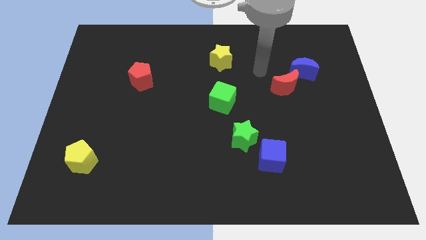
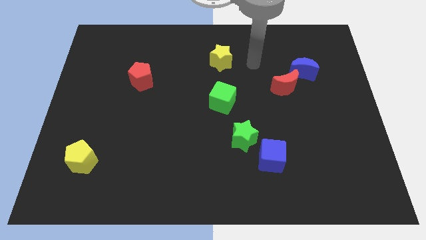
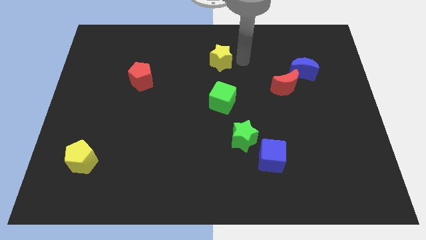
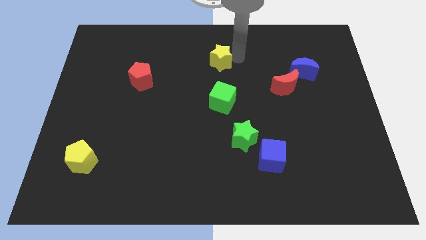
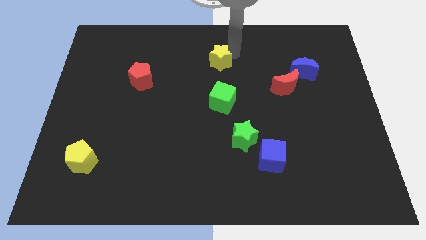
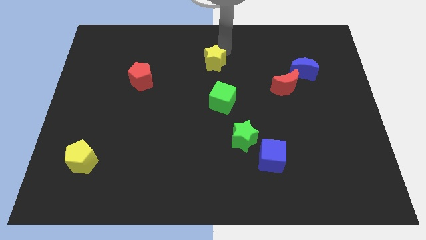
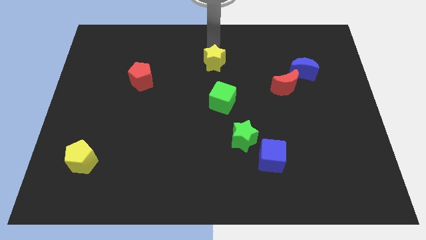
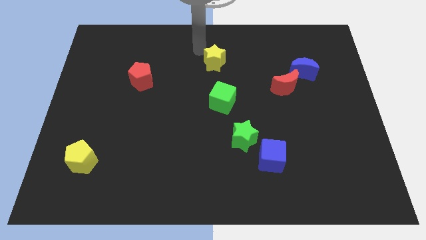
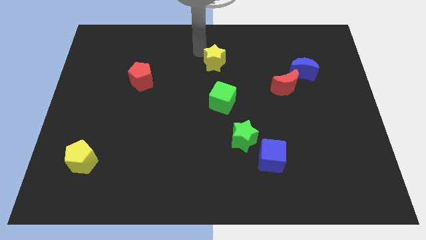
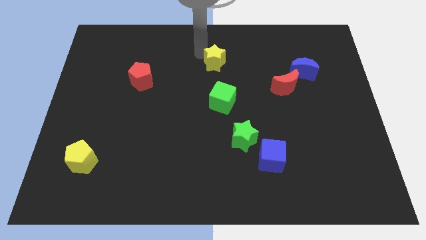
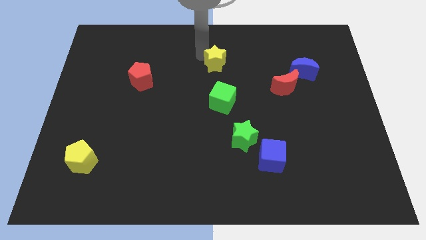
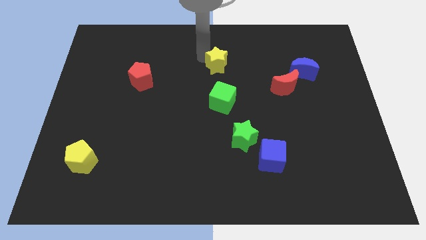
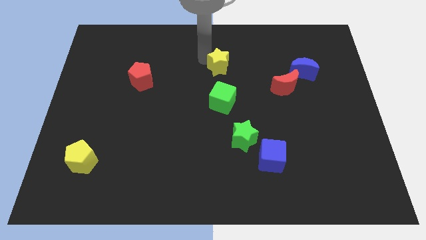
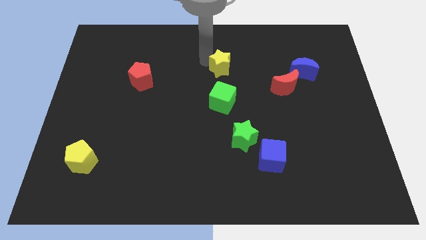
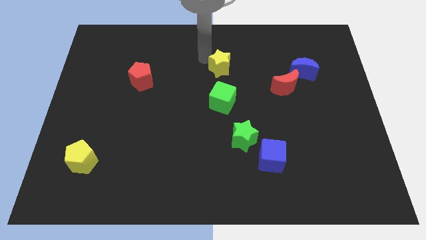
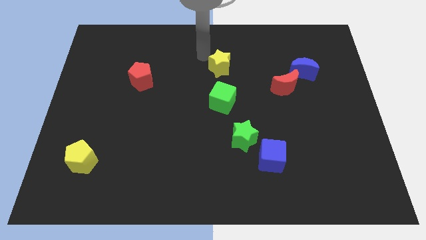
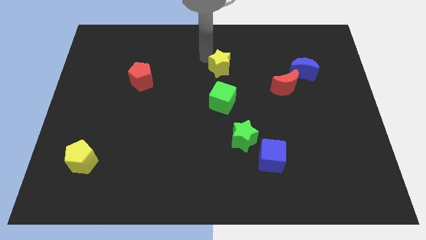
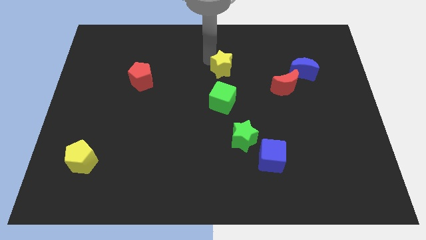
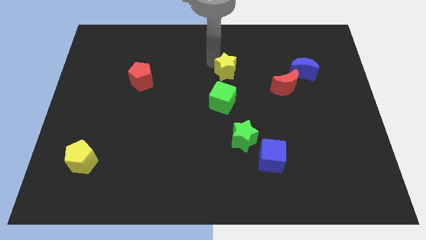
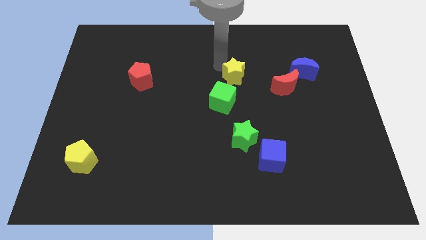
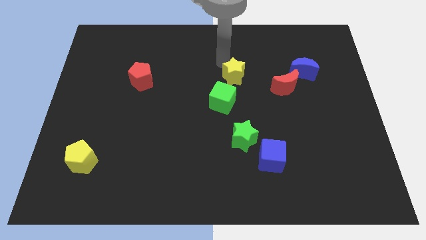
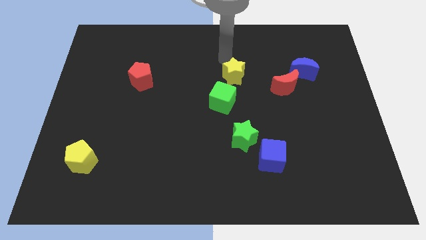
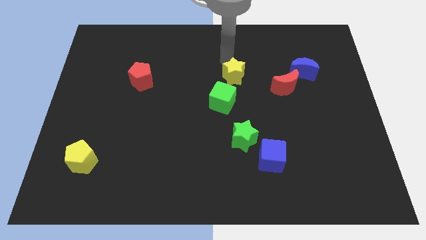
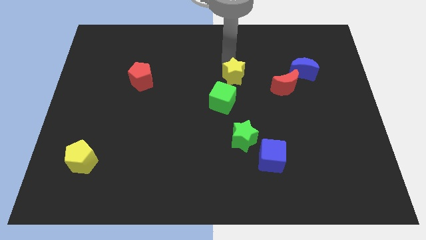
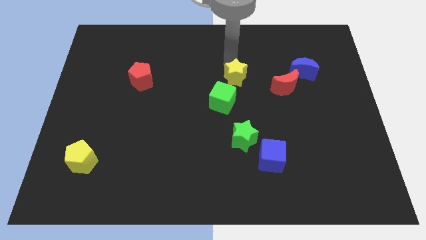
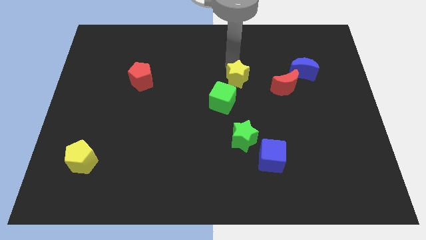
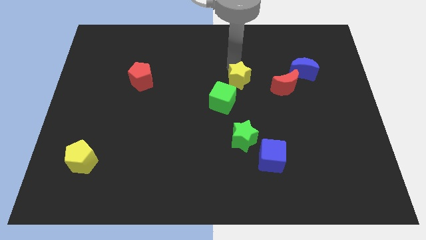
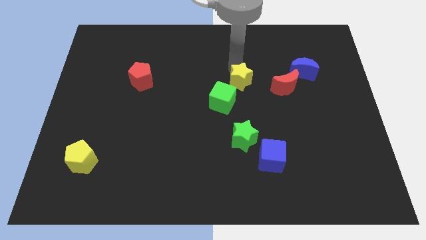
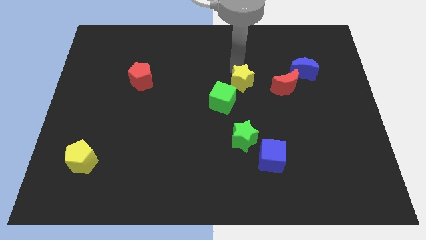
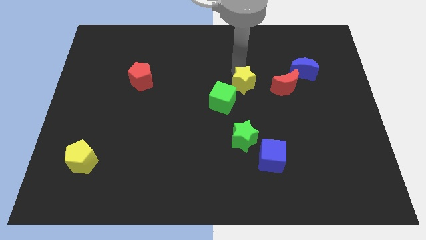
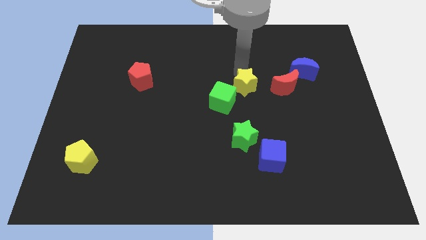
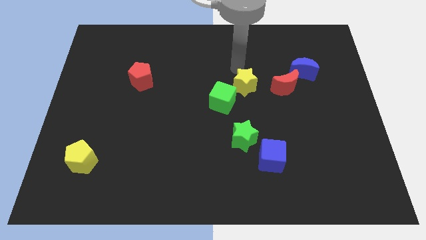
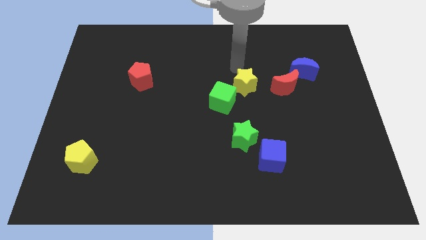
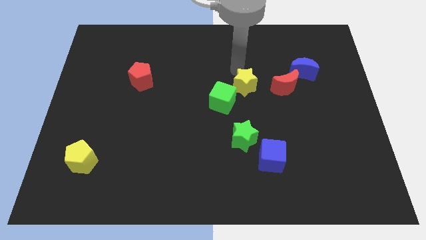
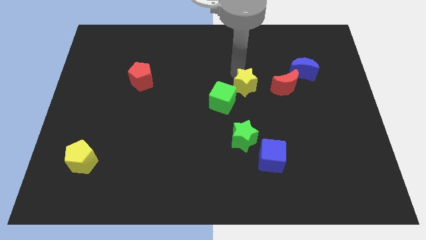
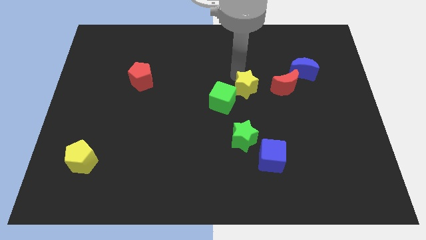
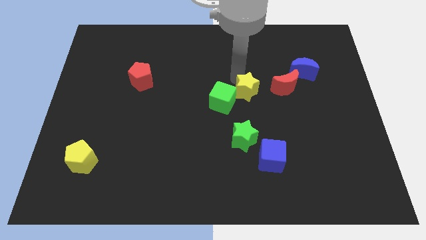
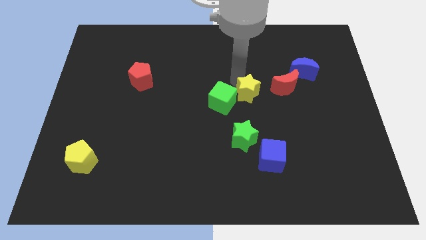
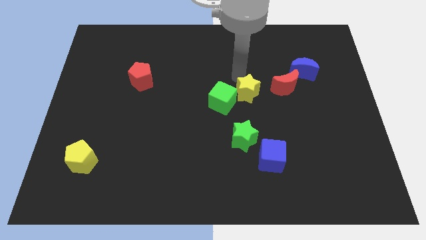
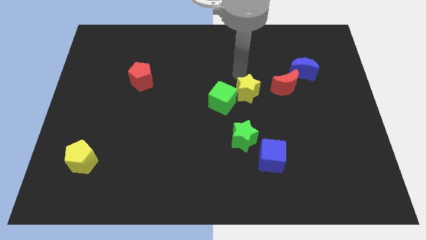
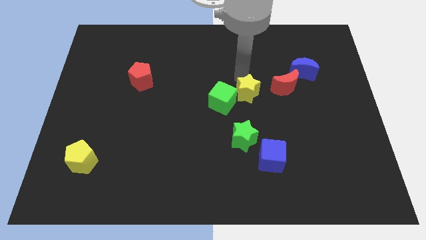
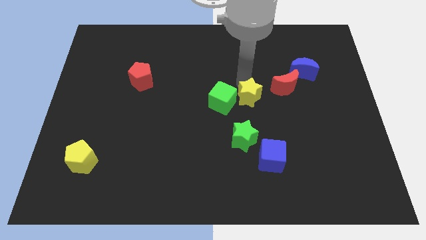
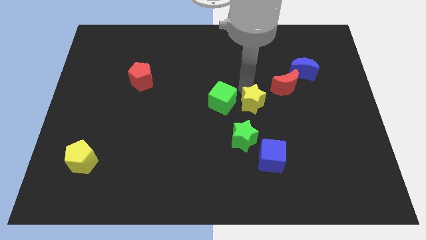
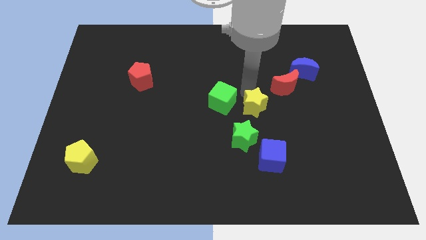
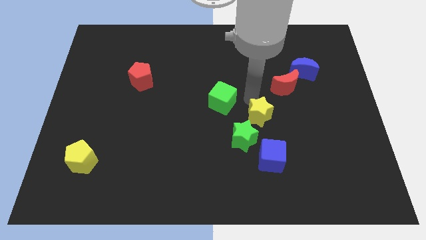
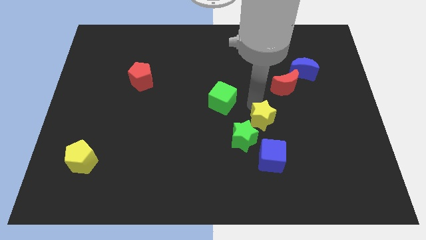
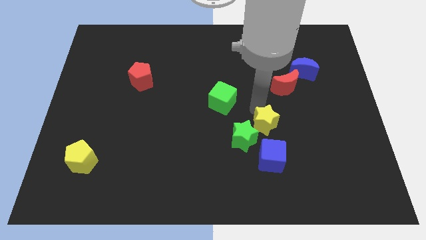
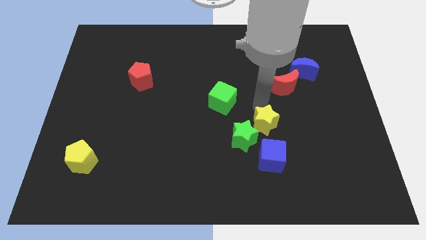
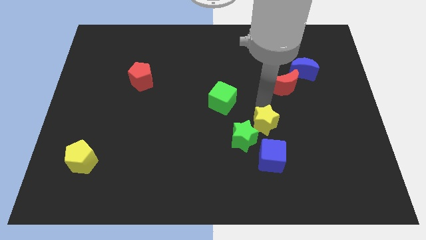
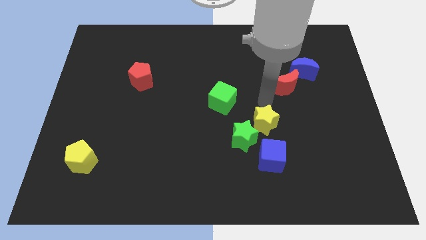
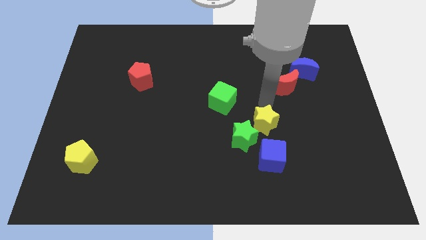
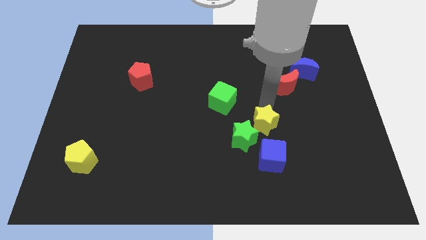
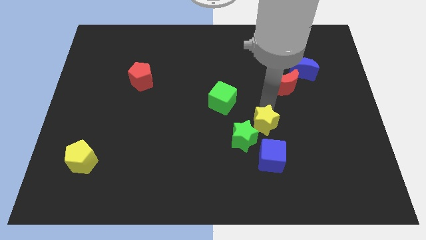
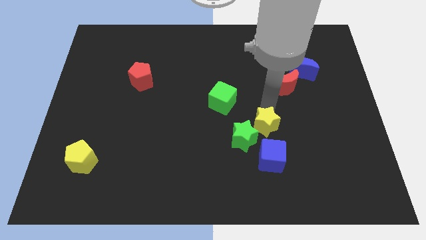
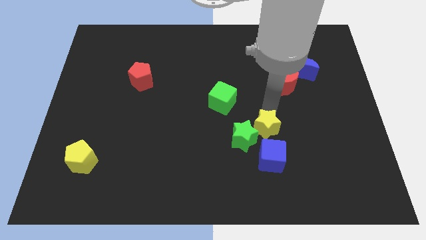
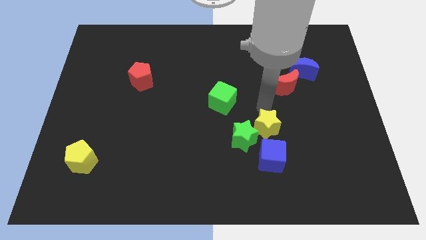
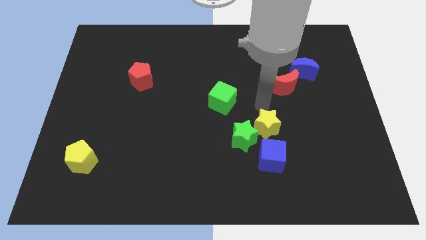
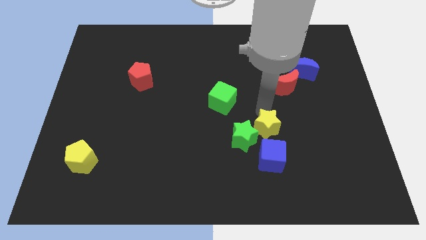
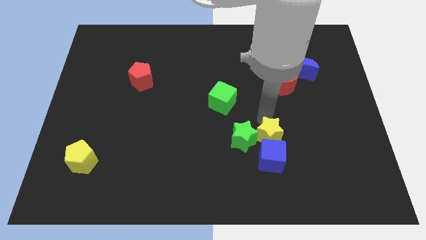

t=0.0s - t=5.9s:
put the yellow star to the blue cube

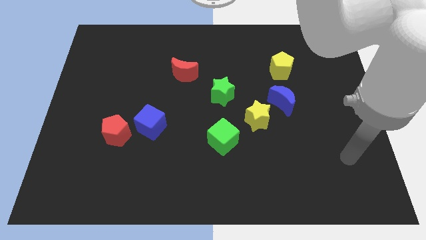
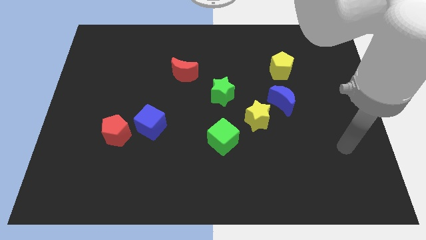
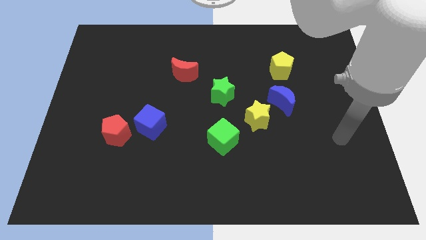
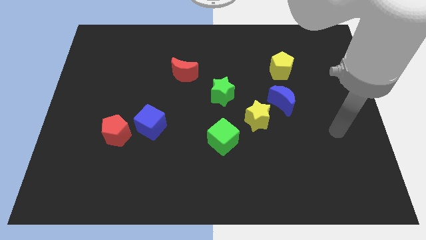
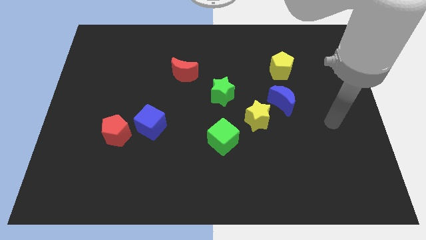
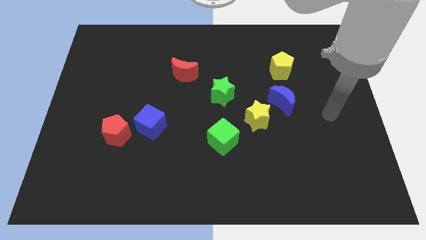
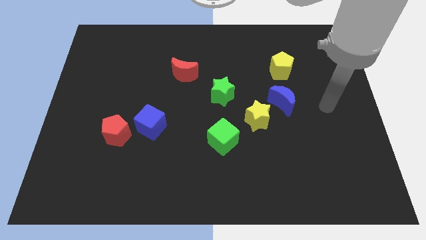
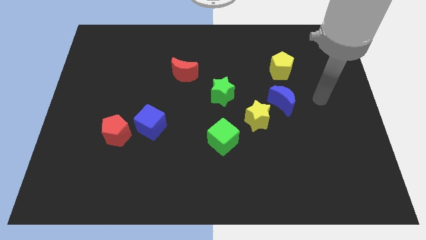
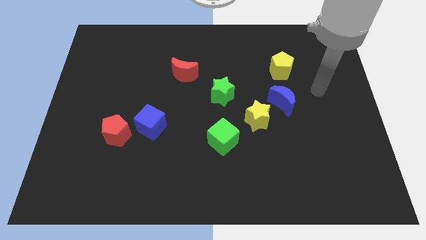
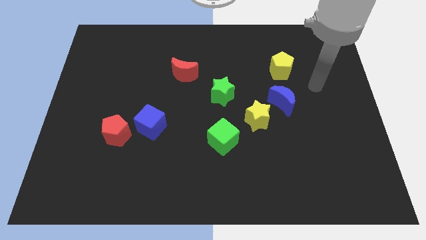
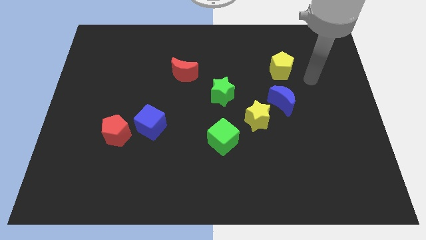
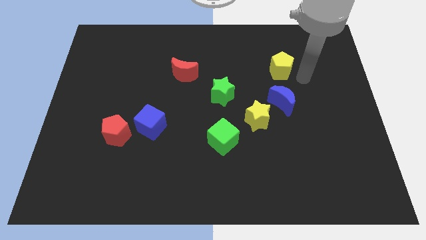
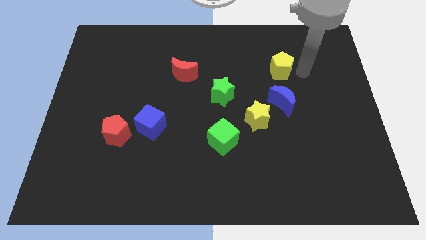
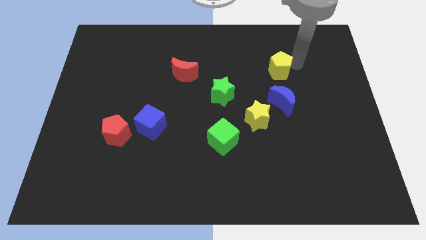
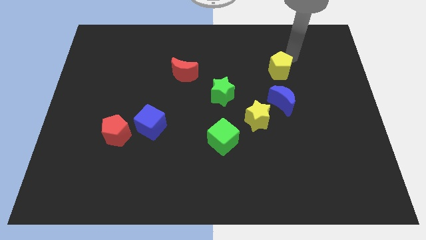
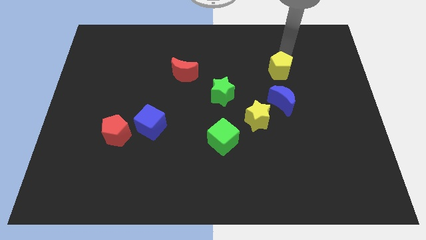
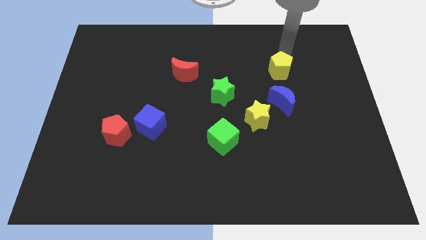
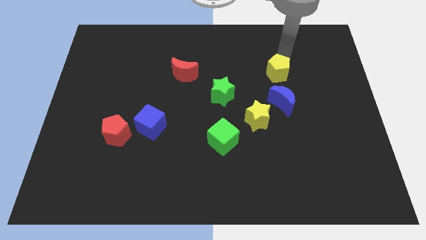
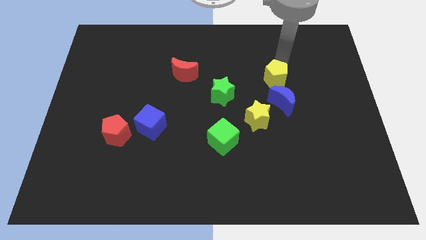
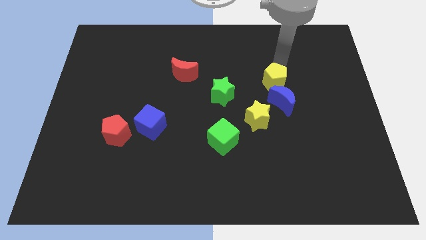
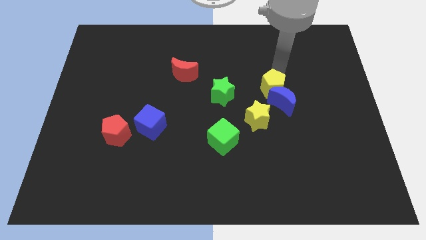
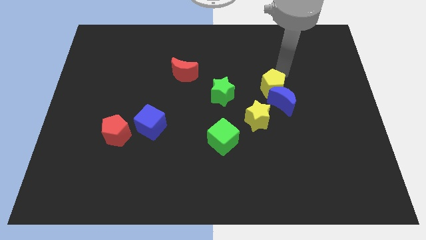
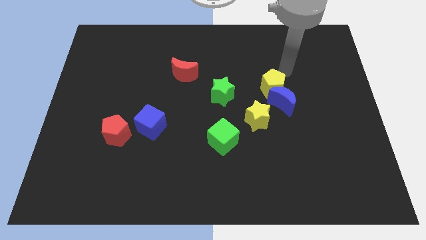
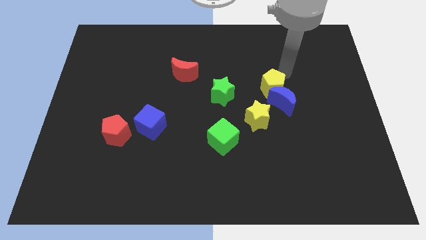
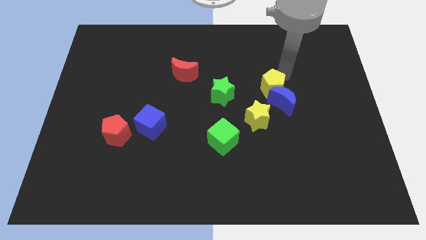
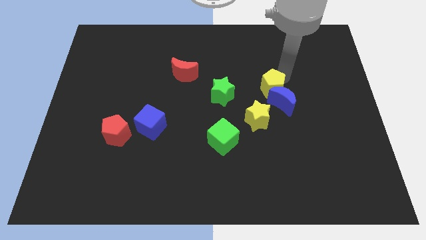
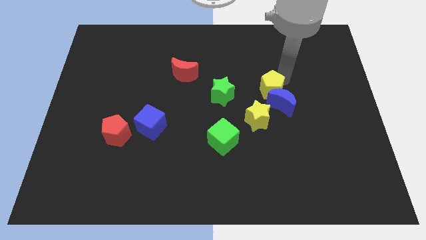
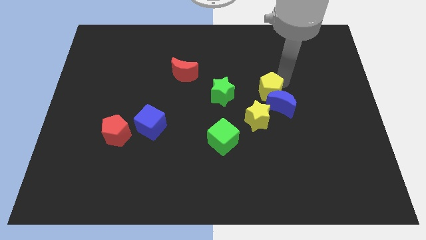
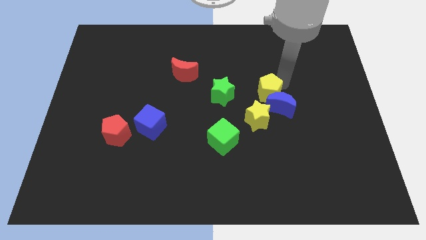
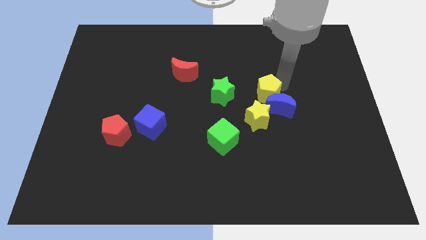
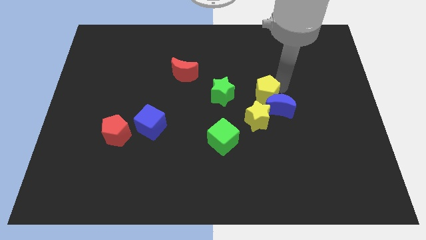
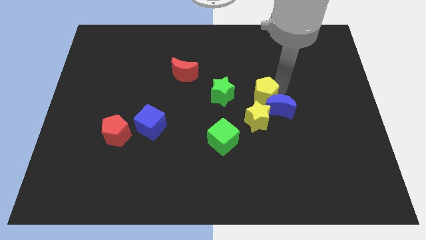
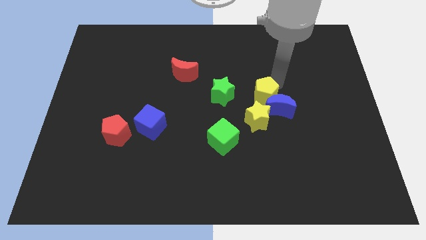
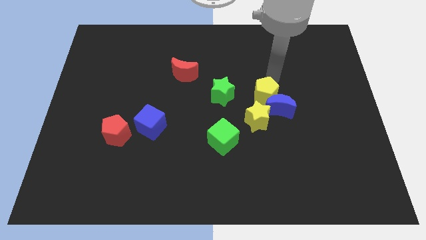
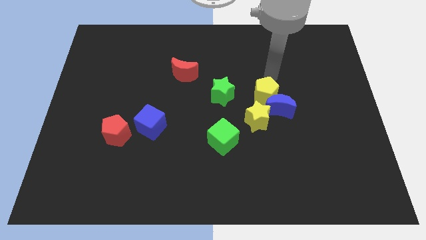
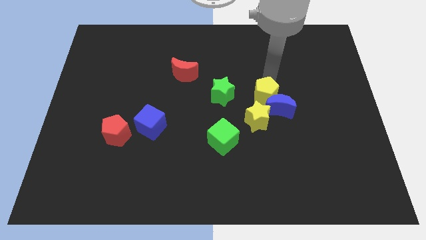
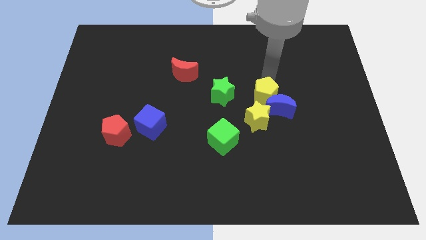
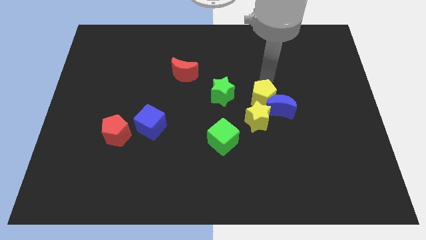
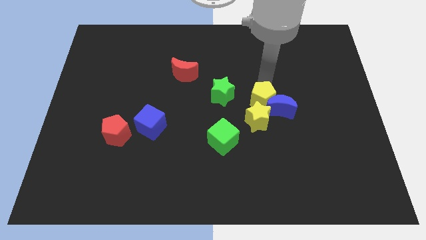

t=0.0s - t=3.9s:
put the yellow pentagon towards the yellow star
